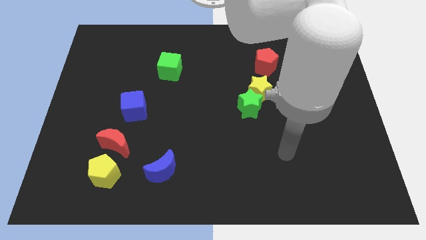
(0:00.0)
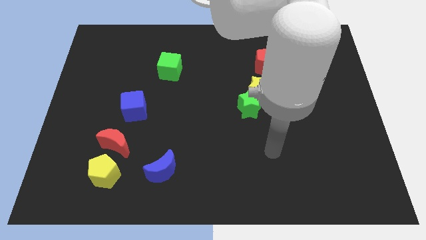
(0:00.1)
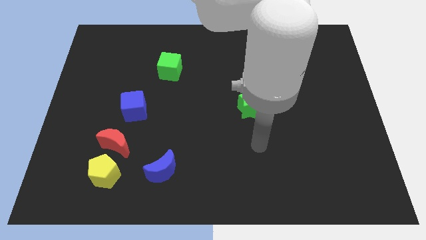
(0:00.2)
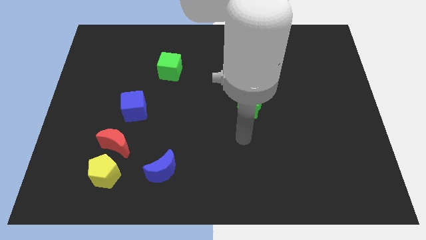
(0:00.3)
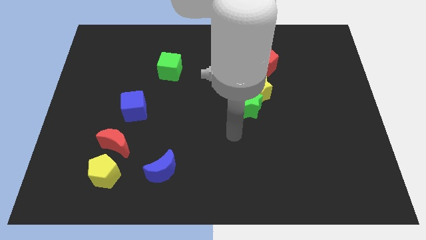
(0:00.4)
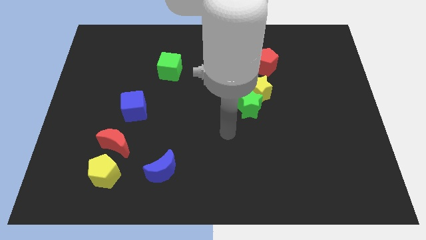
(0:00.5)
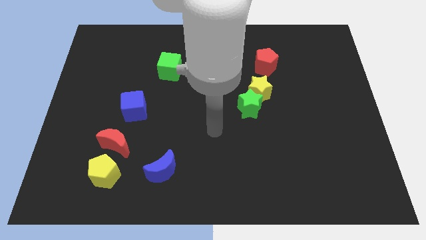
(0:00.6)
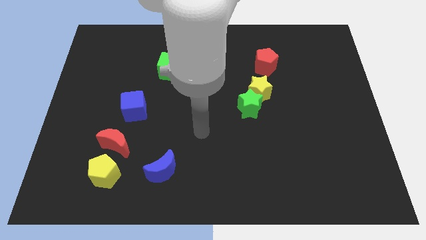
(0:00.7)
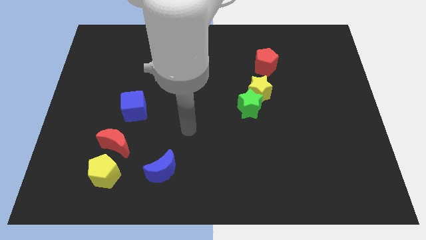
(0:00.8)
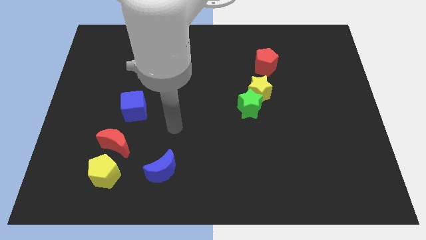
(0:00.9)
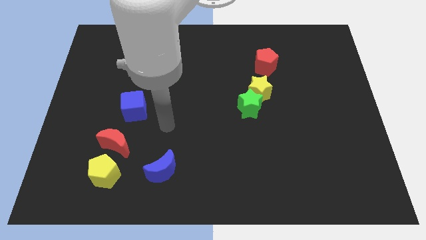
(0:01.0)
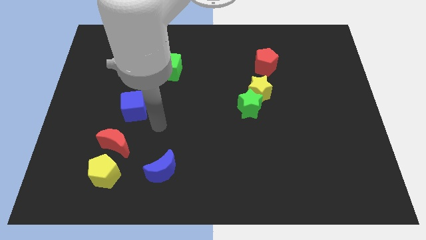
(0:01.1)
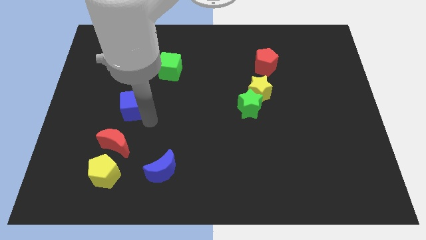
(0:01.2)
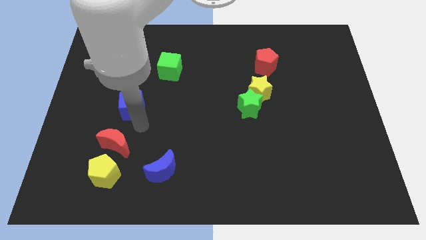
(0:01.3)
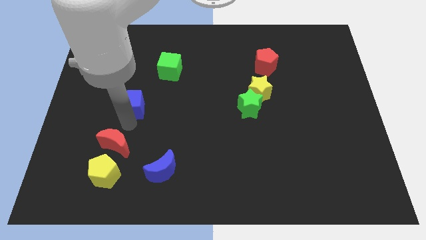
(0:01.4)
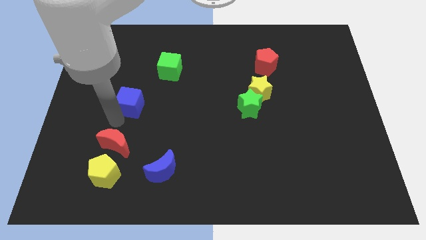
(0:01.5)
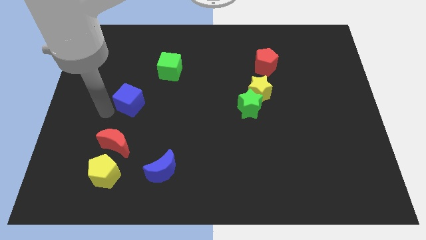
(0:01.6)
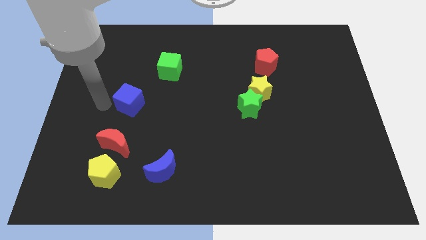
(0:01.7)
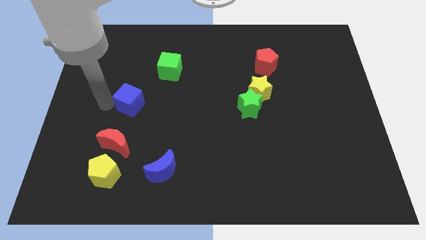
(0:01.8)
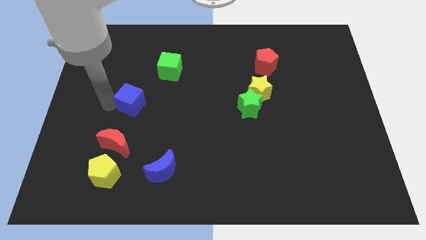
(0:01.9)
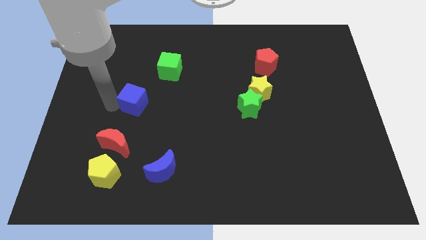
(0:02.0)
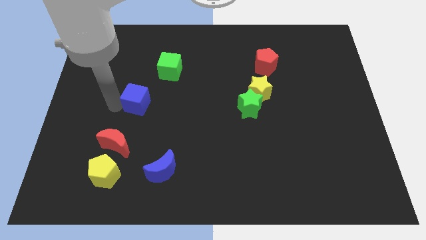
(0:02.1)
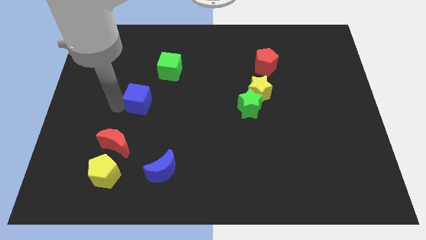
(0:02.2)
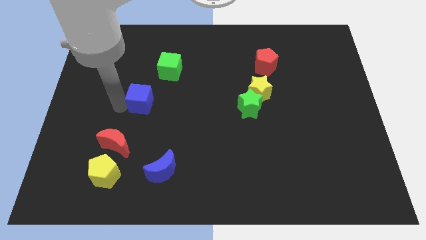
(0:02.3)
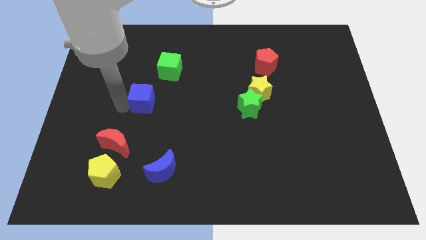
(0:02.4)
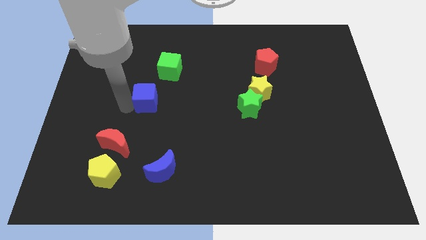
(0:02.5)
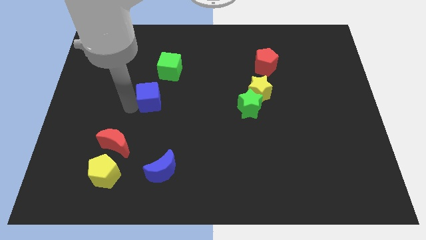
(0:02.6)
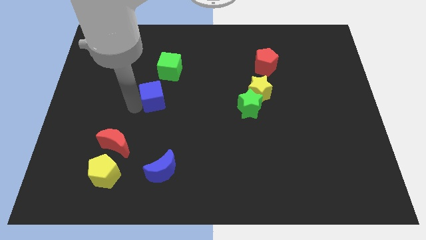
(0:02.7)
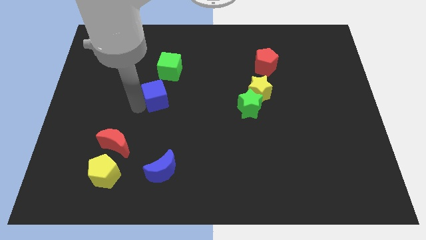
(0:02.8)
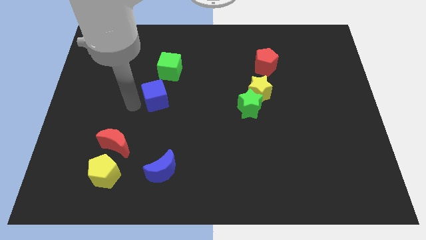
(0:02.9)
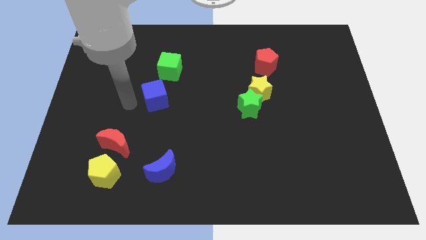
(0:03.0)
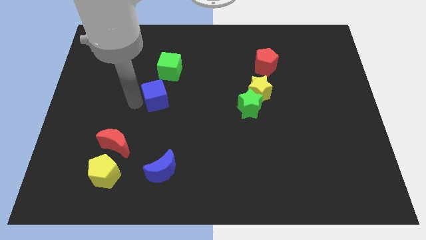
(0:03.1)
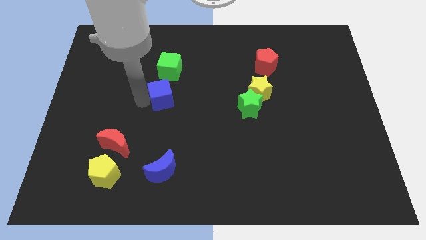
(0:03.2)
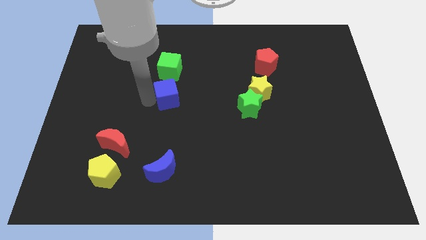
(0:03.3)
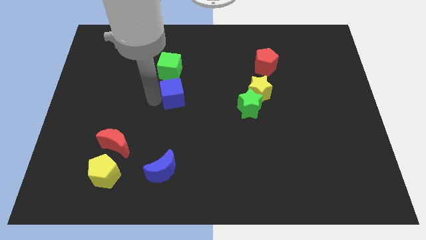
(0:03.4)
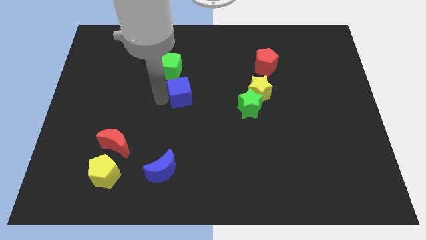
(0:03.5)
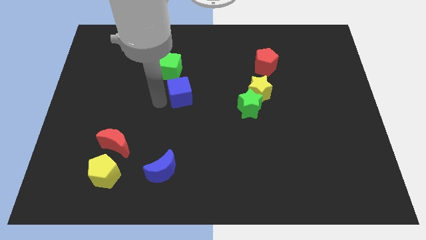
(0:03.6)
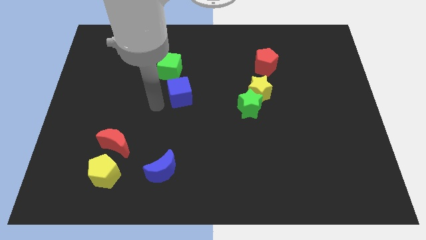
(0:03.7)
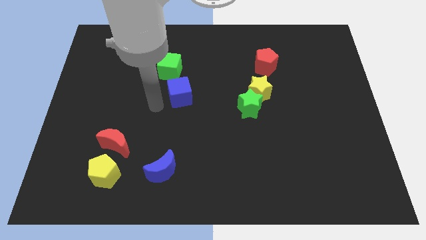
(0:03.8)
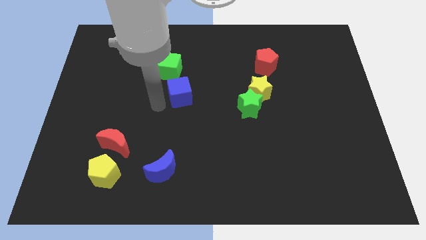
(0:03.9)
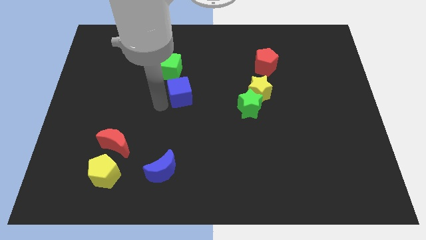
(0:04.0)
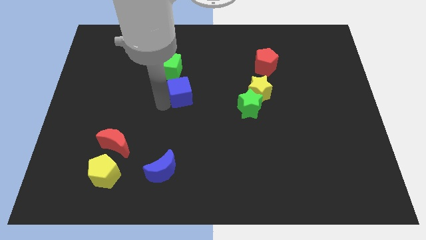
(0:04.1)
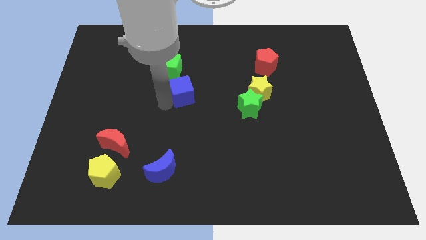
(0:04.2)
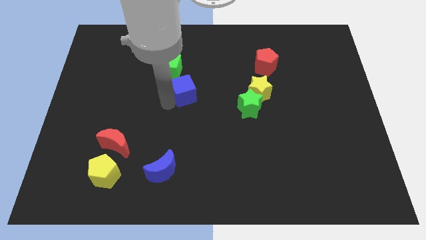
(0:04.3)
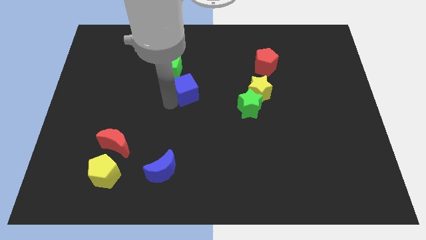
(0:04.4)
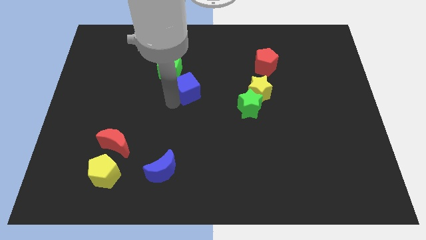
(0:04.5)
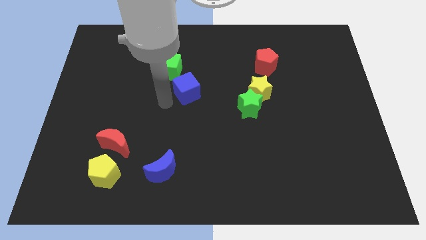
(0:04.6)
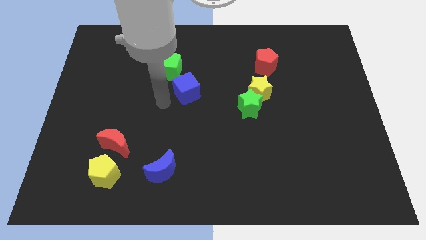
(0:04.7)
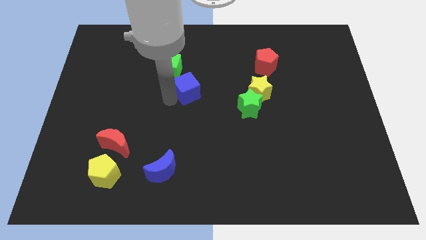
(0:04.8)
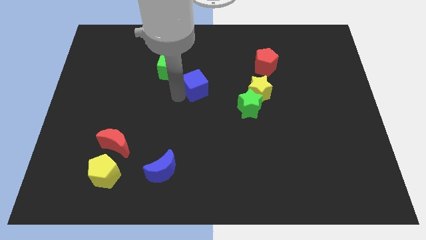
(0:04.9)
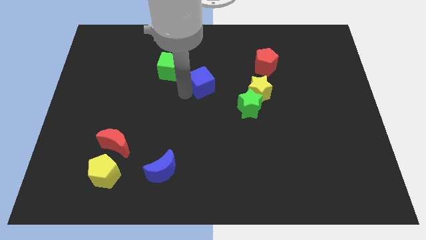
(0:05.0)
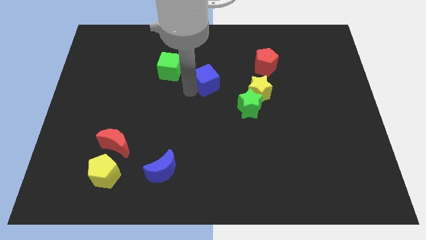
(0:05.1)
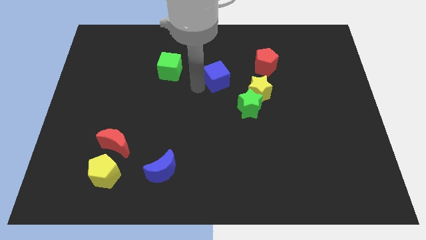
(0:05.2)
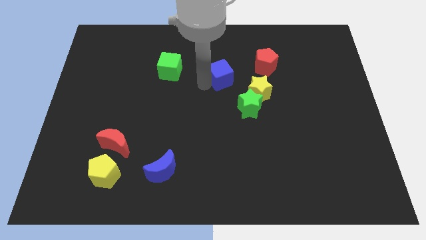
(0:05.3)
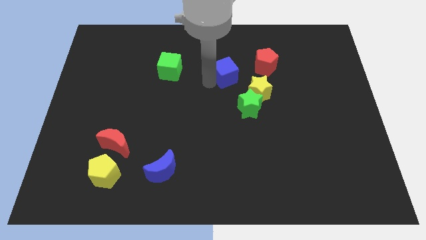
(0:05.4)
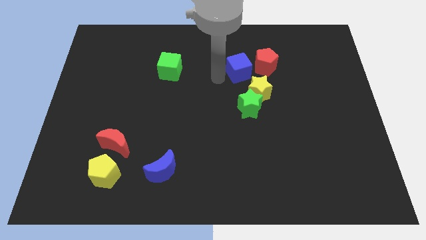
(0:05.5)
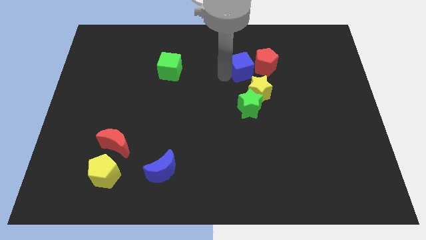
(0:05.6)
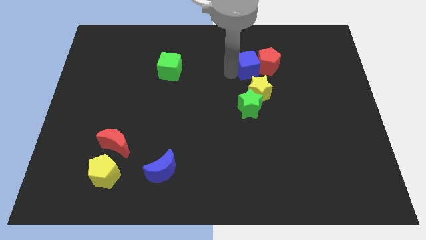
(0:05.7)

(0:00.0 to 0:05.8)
move the blue cube next to the red pentagon

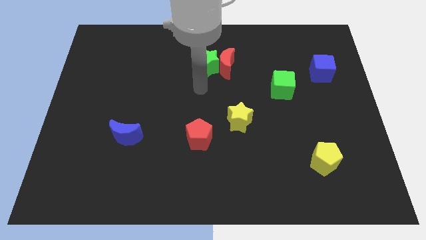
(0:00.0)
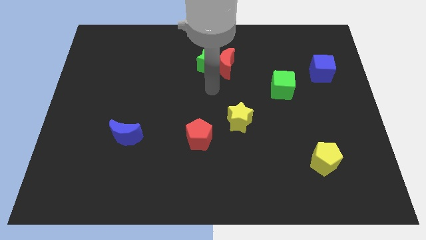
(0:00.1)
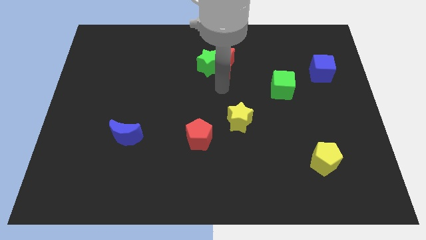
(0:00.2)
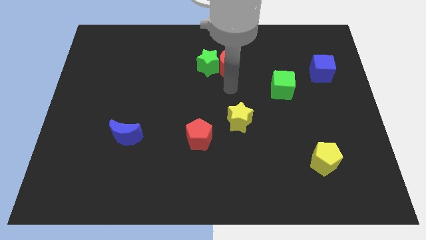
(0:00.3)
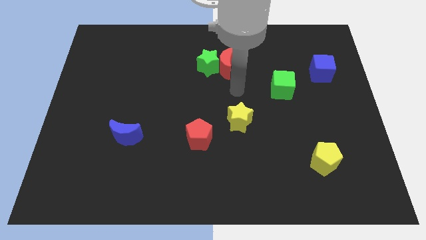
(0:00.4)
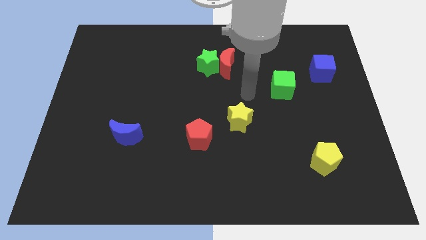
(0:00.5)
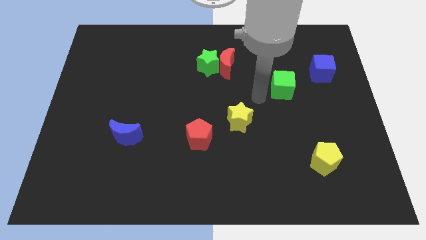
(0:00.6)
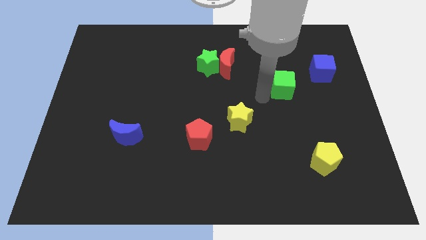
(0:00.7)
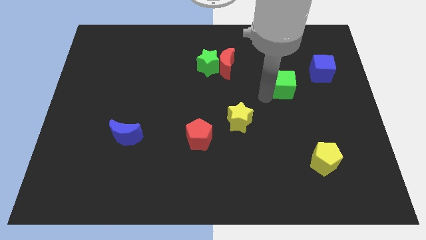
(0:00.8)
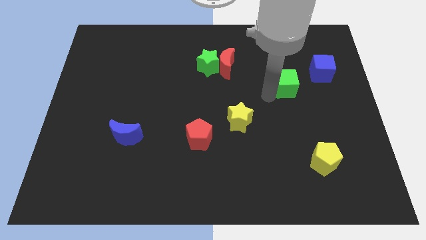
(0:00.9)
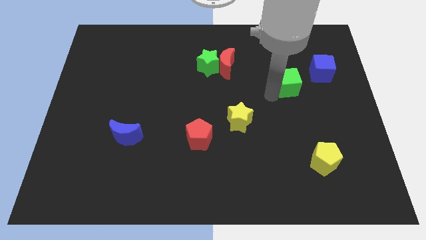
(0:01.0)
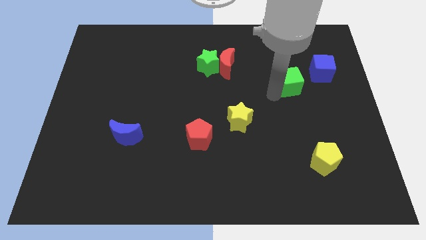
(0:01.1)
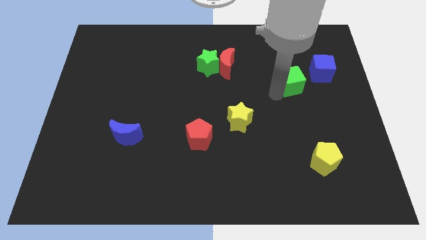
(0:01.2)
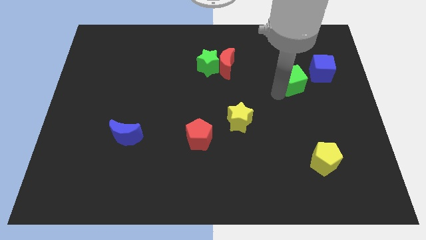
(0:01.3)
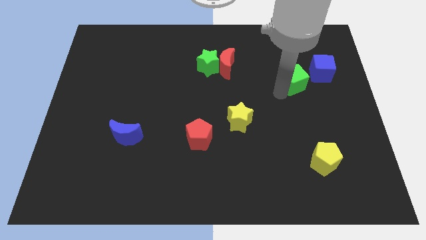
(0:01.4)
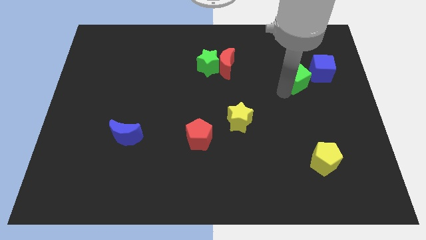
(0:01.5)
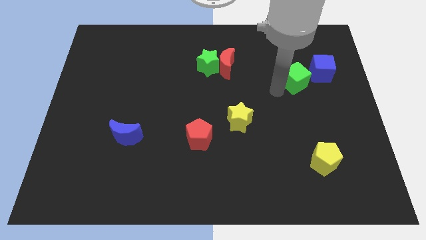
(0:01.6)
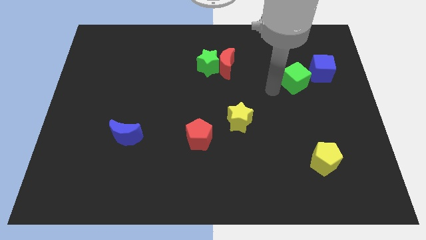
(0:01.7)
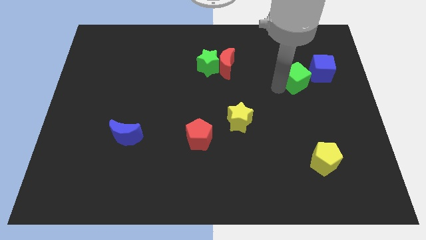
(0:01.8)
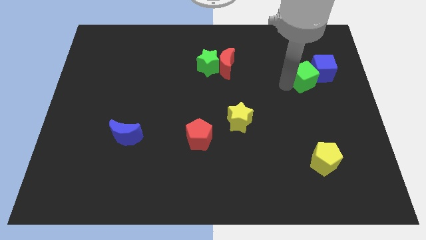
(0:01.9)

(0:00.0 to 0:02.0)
push the green cube towards the blue cube
